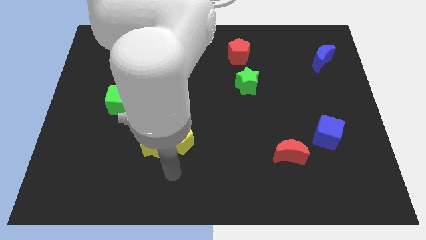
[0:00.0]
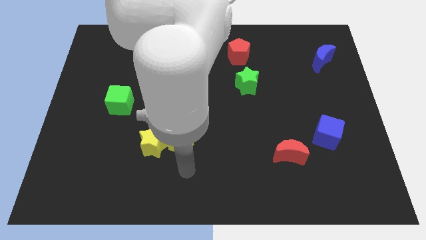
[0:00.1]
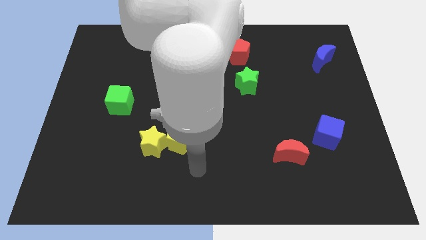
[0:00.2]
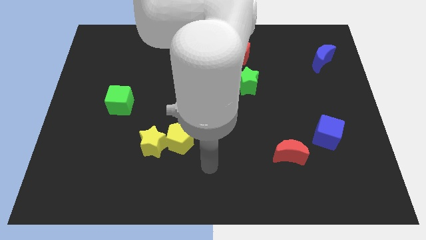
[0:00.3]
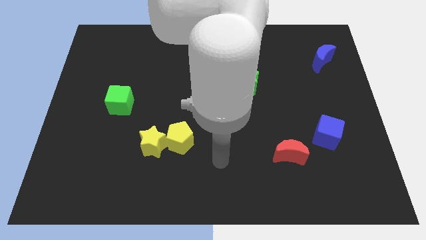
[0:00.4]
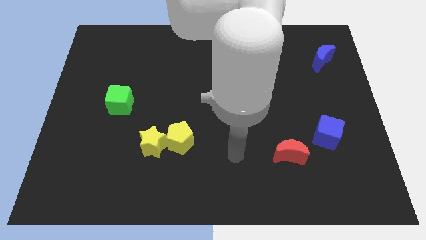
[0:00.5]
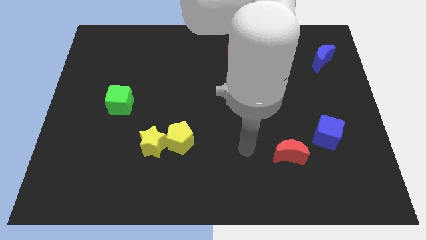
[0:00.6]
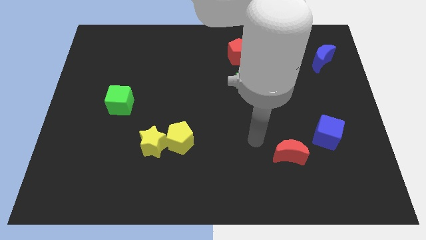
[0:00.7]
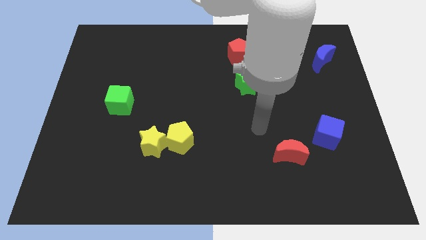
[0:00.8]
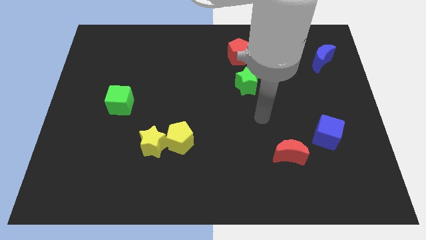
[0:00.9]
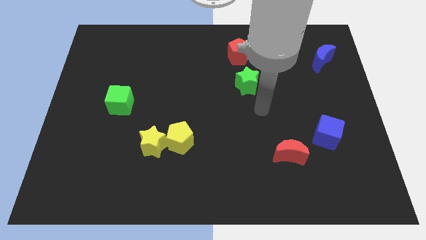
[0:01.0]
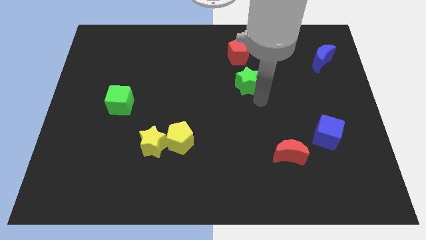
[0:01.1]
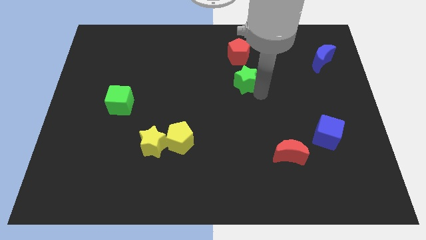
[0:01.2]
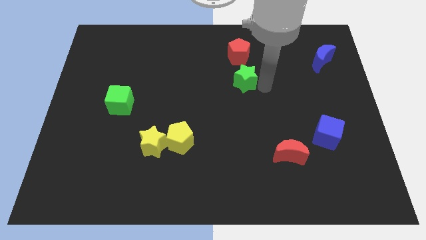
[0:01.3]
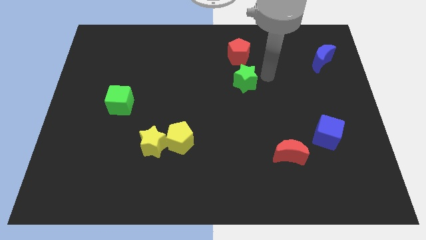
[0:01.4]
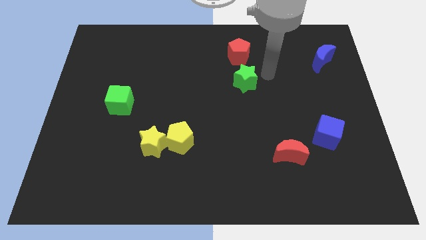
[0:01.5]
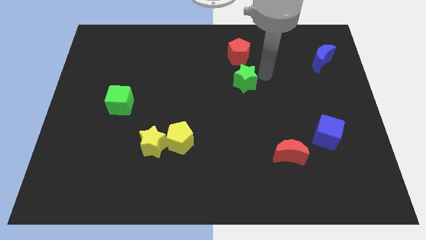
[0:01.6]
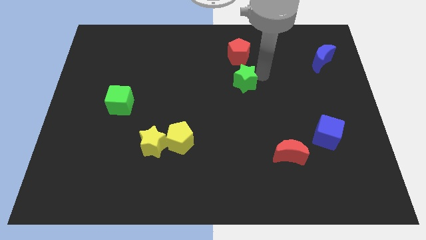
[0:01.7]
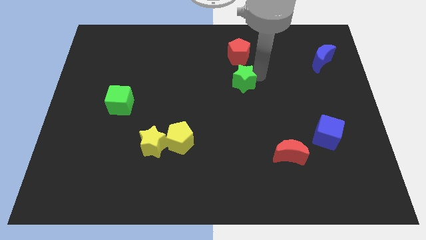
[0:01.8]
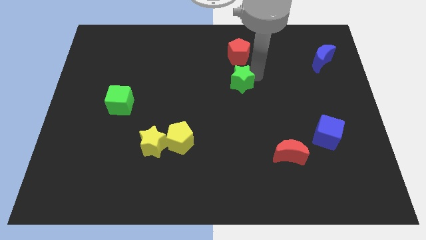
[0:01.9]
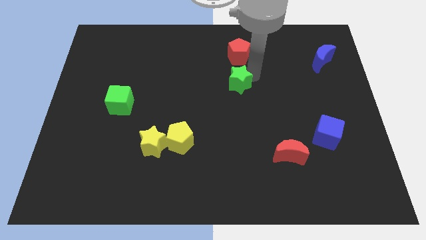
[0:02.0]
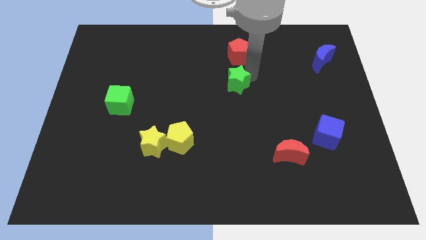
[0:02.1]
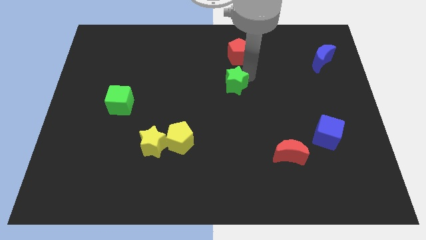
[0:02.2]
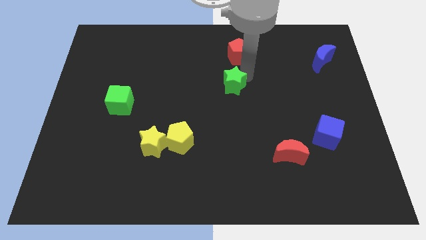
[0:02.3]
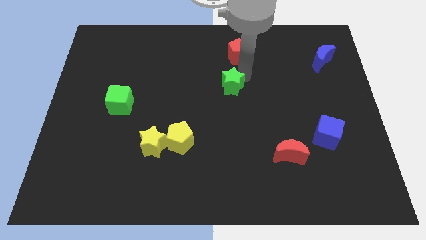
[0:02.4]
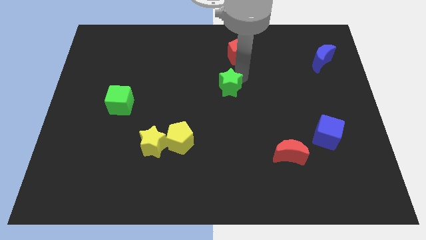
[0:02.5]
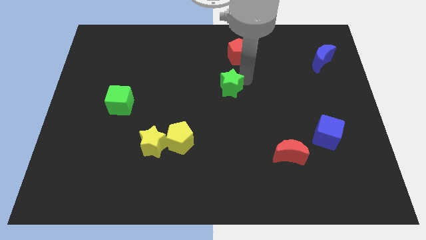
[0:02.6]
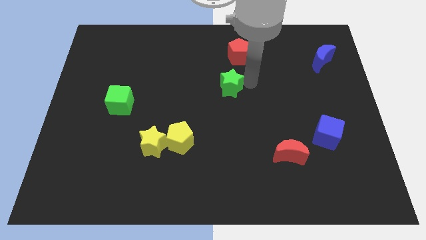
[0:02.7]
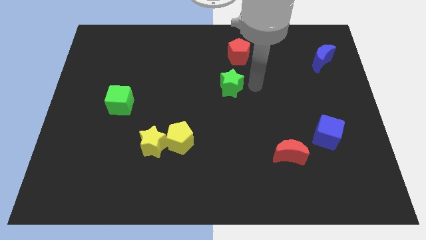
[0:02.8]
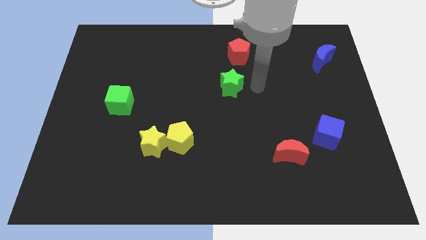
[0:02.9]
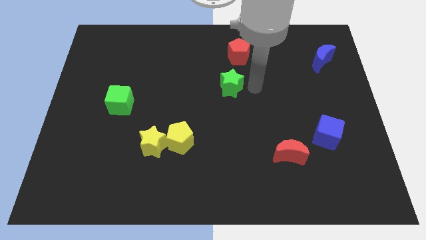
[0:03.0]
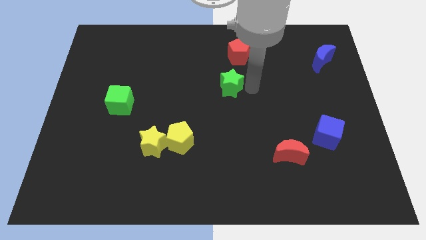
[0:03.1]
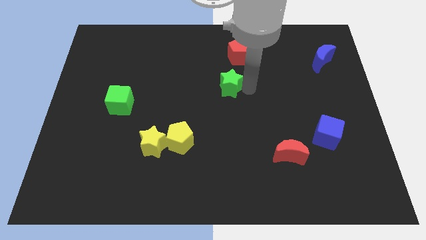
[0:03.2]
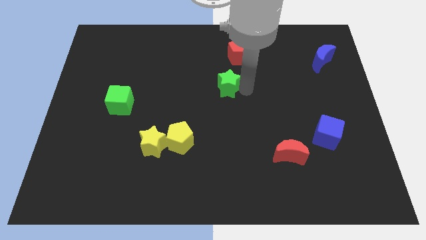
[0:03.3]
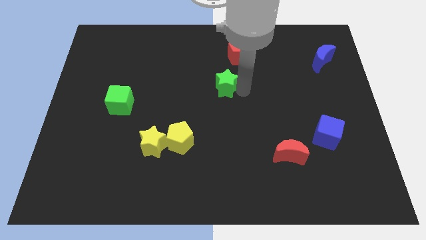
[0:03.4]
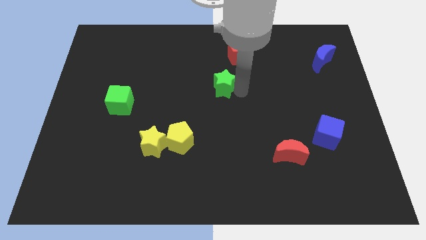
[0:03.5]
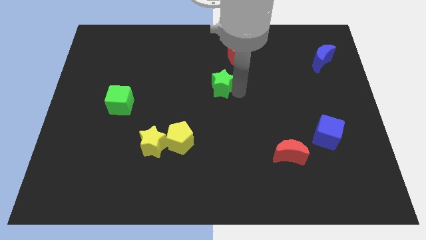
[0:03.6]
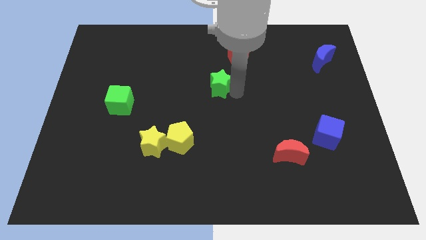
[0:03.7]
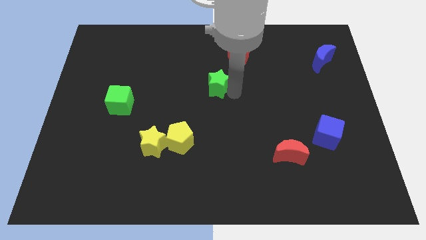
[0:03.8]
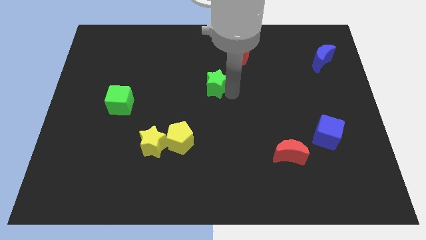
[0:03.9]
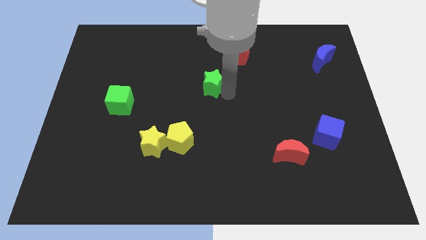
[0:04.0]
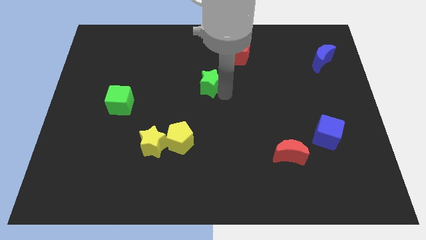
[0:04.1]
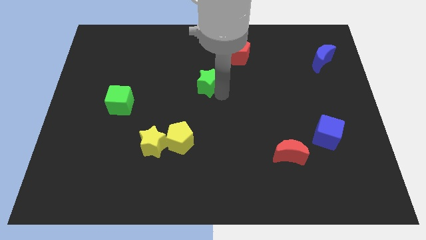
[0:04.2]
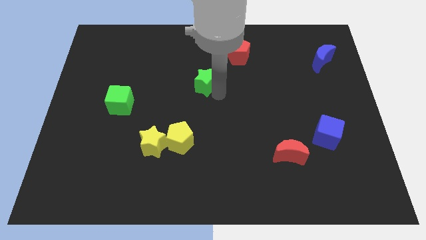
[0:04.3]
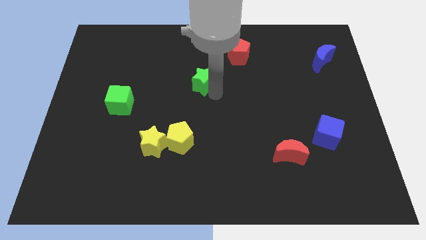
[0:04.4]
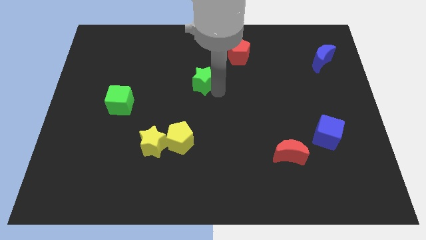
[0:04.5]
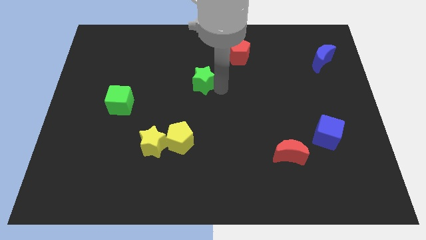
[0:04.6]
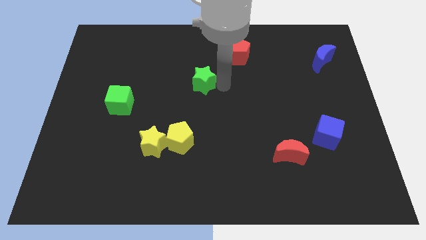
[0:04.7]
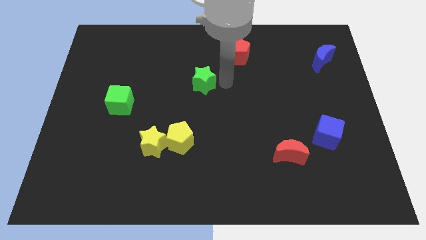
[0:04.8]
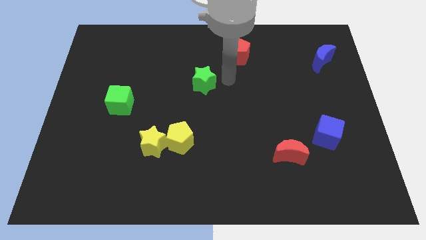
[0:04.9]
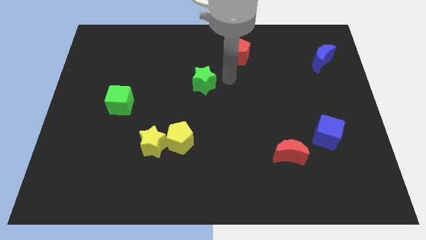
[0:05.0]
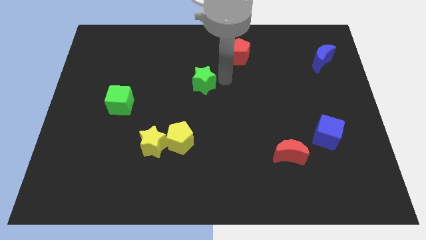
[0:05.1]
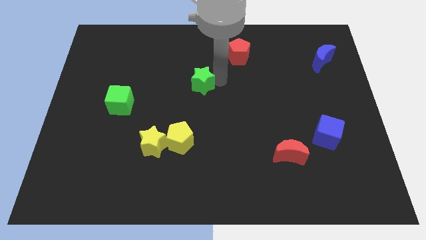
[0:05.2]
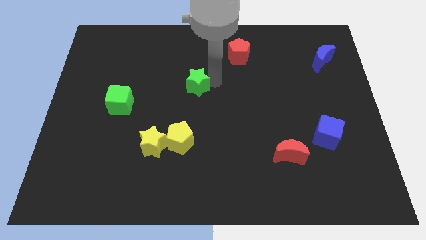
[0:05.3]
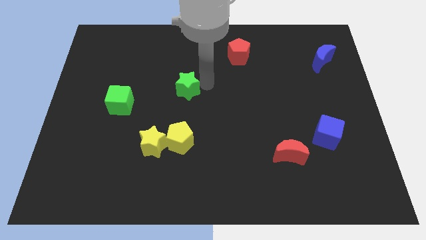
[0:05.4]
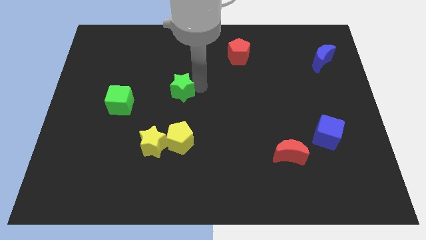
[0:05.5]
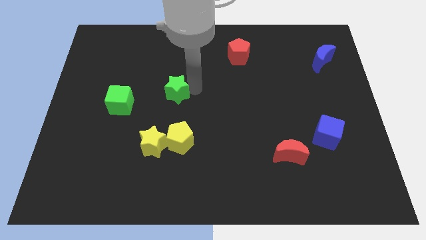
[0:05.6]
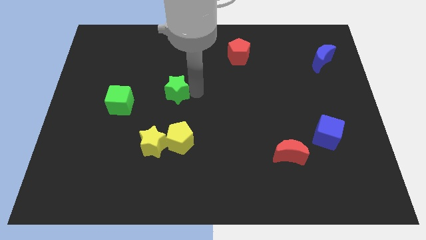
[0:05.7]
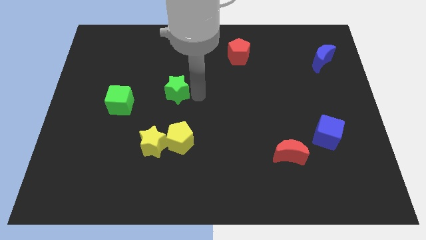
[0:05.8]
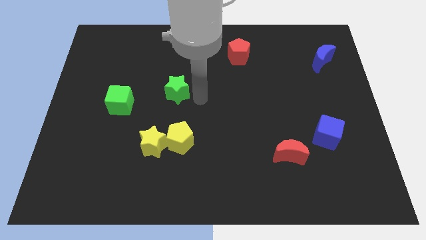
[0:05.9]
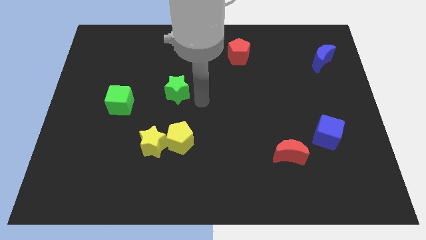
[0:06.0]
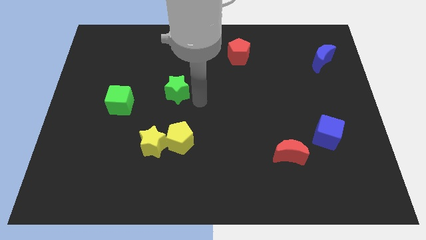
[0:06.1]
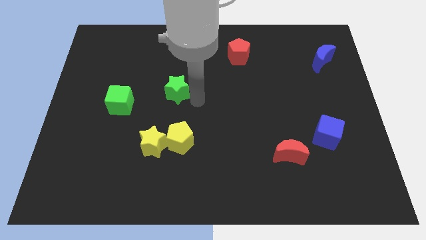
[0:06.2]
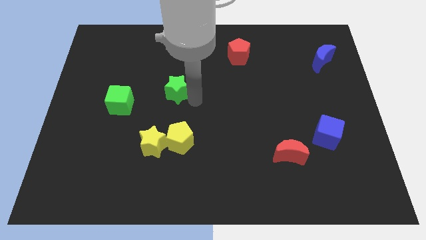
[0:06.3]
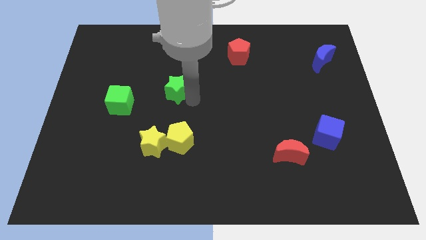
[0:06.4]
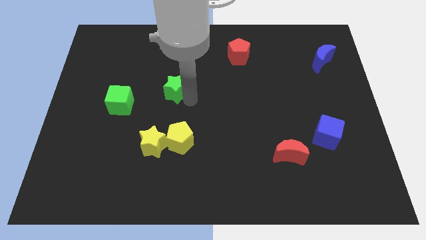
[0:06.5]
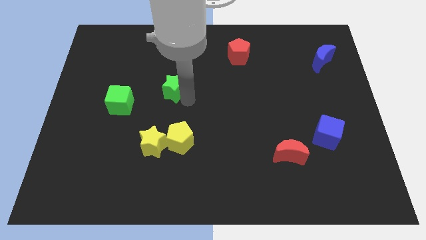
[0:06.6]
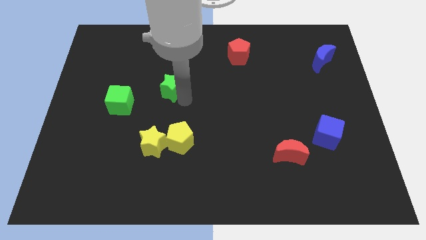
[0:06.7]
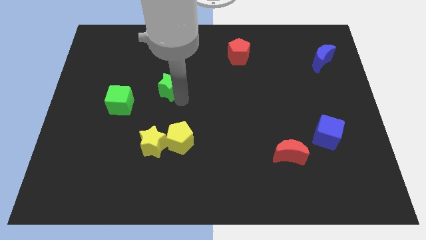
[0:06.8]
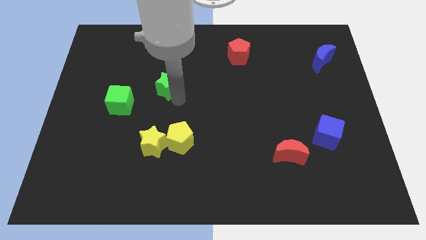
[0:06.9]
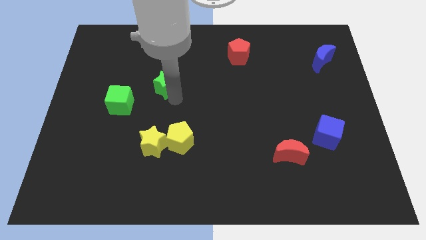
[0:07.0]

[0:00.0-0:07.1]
push the green star to the top right of the green cube
